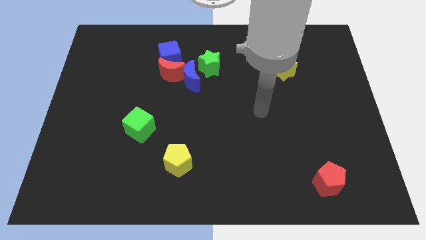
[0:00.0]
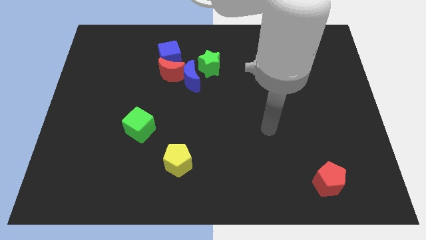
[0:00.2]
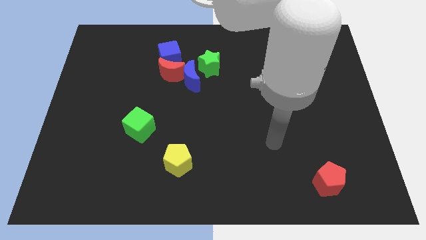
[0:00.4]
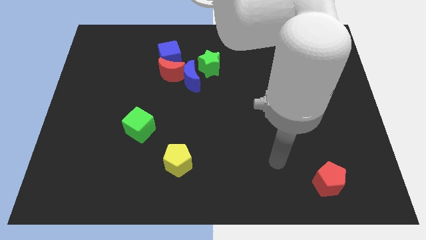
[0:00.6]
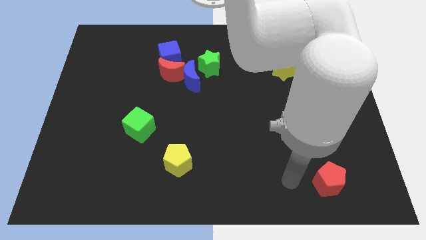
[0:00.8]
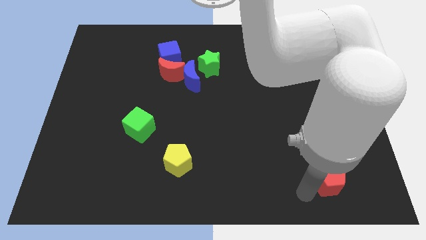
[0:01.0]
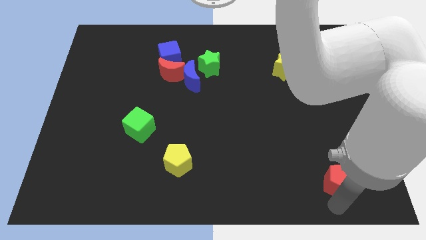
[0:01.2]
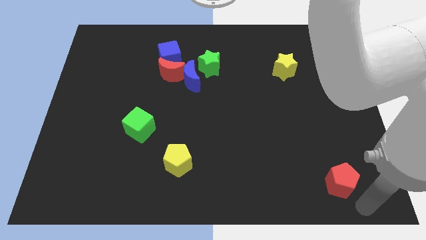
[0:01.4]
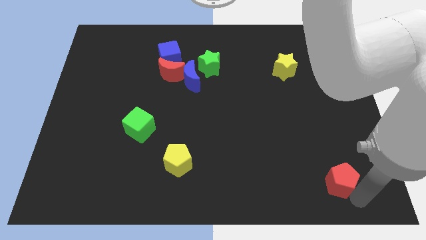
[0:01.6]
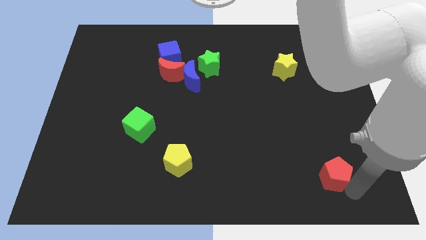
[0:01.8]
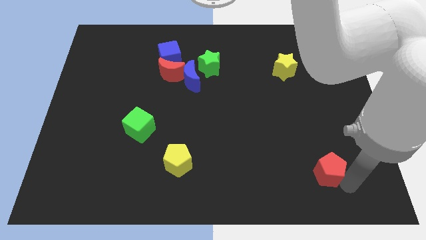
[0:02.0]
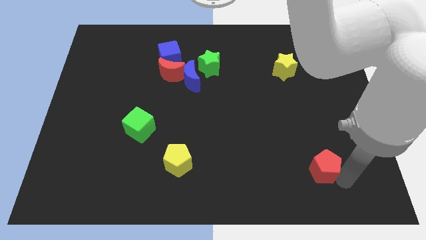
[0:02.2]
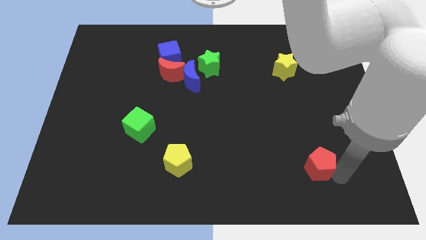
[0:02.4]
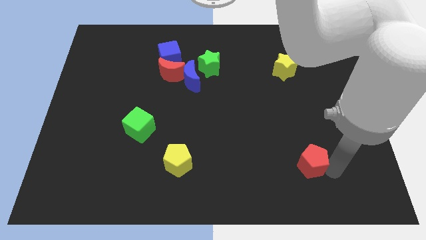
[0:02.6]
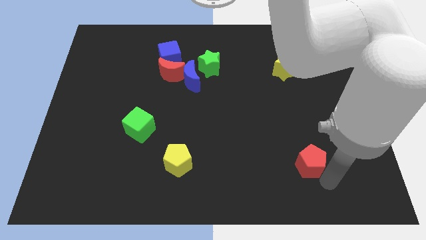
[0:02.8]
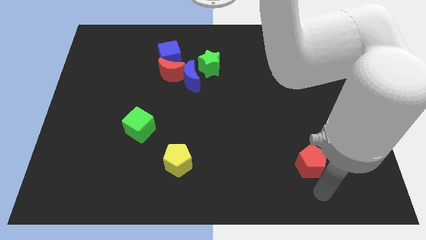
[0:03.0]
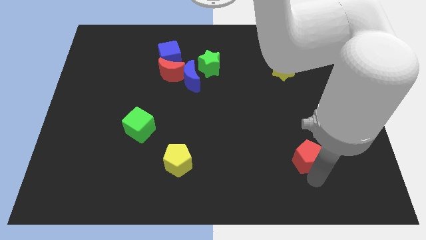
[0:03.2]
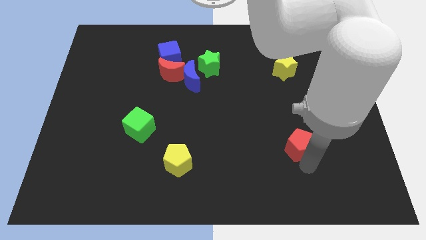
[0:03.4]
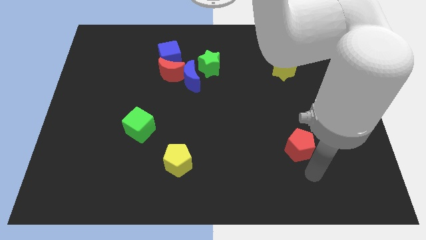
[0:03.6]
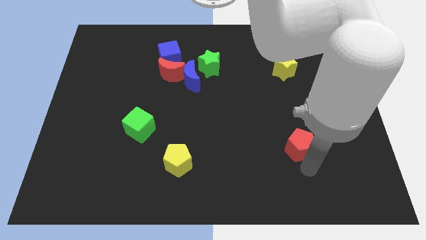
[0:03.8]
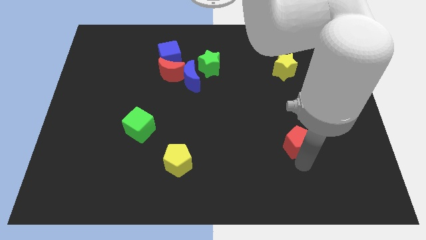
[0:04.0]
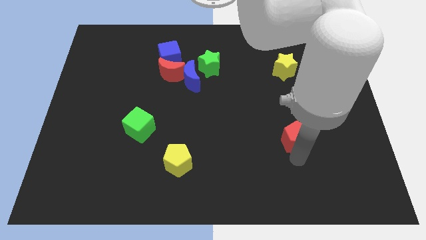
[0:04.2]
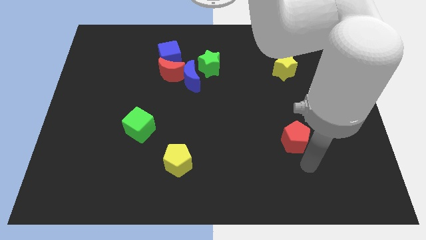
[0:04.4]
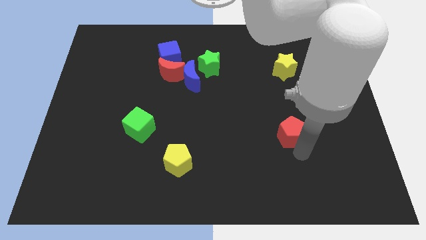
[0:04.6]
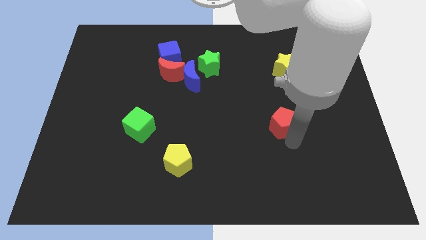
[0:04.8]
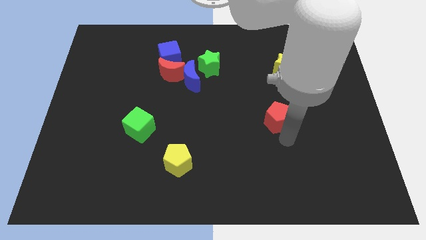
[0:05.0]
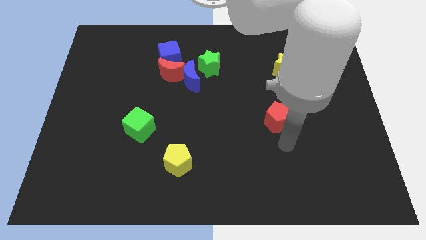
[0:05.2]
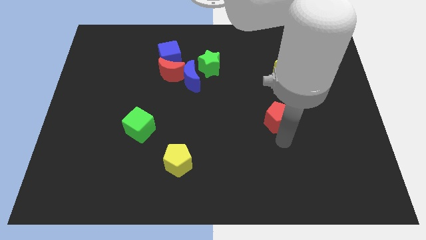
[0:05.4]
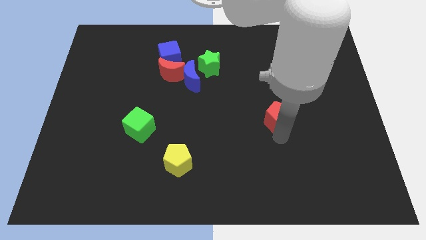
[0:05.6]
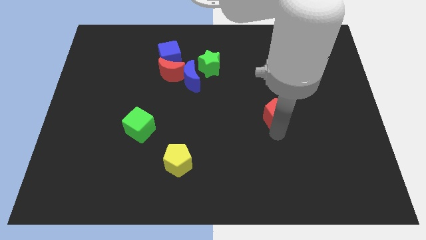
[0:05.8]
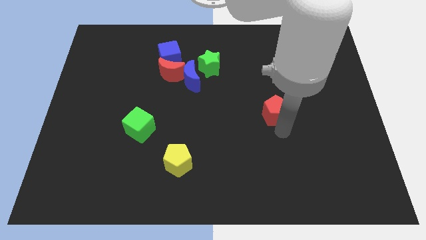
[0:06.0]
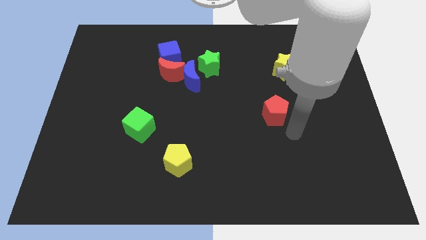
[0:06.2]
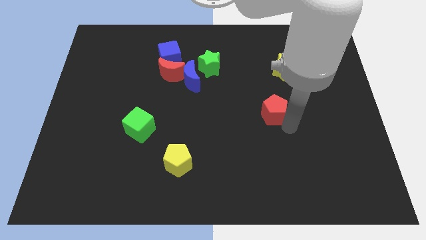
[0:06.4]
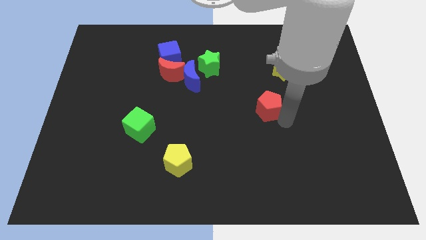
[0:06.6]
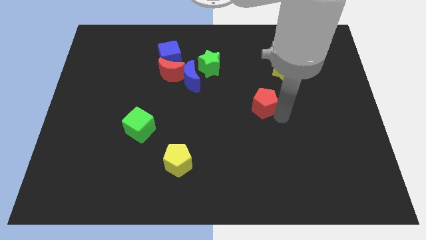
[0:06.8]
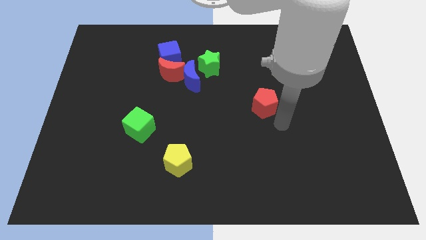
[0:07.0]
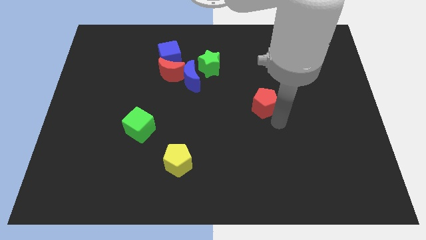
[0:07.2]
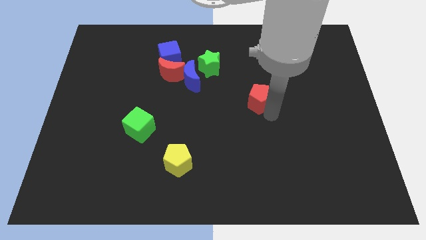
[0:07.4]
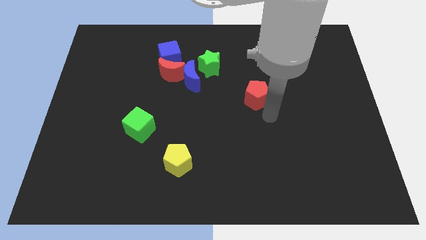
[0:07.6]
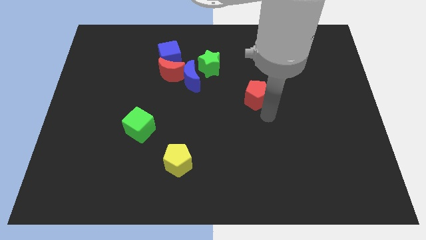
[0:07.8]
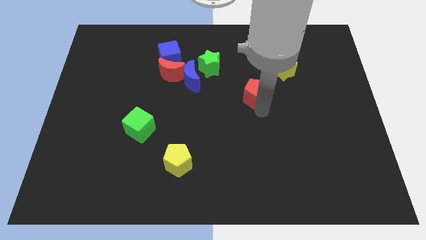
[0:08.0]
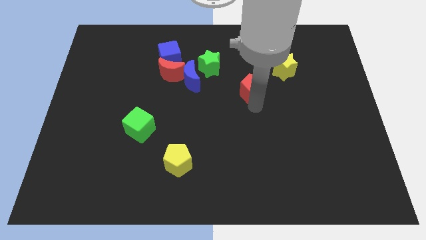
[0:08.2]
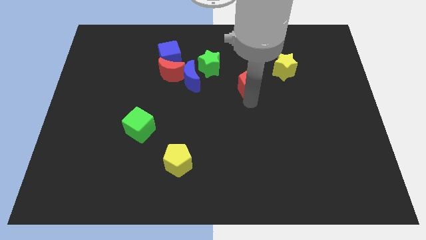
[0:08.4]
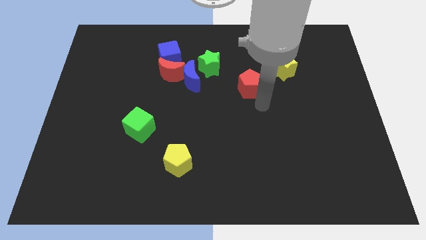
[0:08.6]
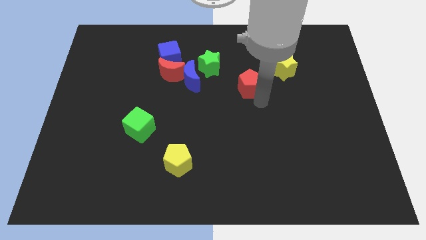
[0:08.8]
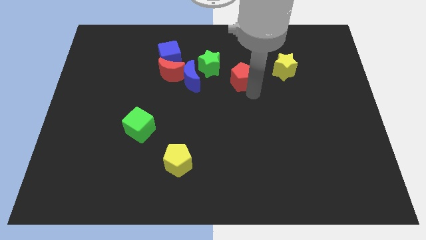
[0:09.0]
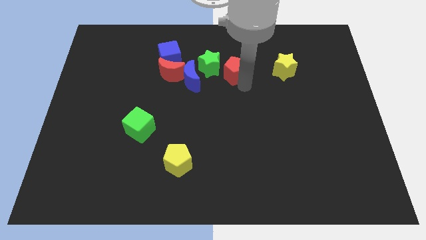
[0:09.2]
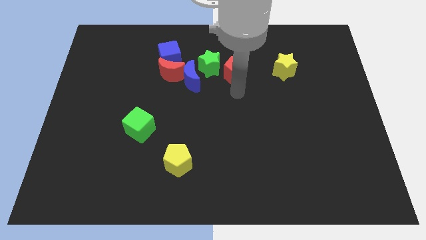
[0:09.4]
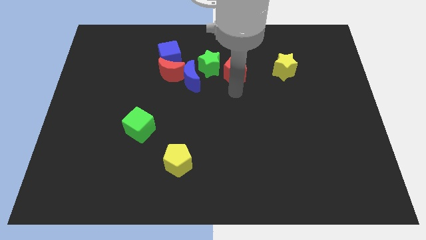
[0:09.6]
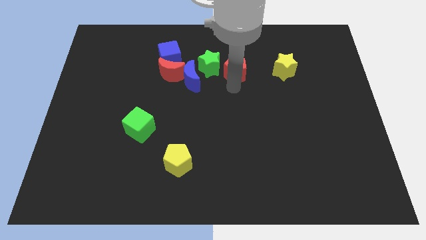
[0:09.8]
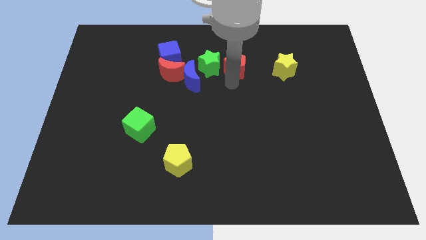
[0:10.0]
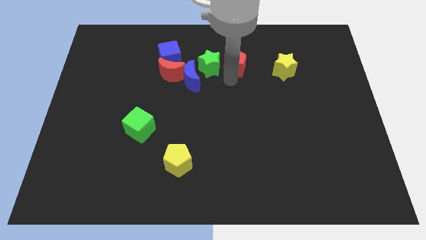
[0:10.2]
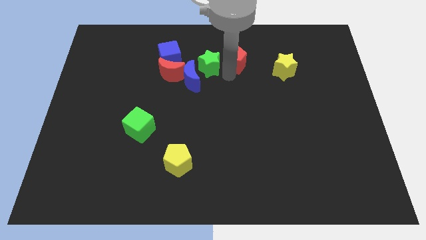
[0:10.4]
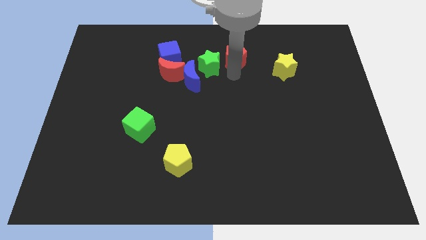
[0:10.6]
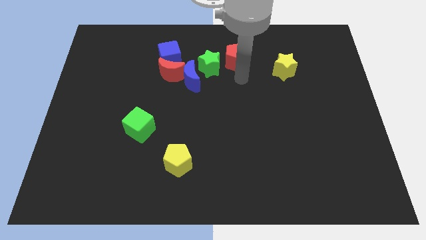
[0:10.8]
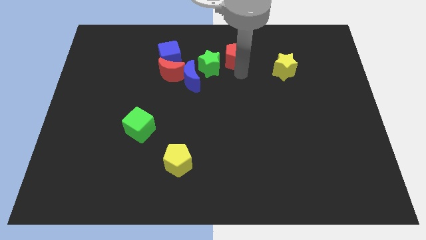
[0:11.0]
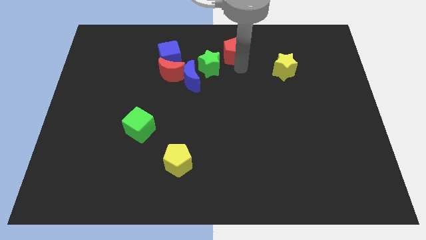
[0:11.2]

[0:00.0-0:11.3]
push the red pentagon to the towards your base

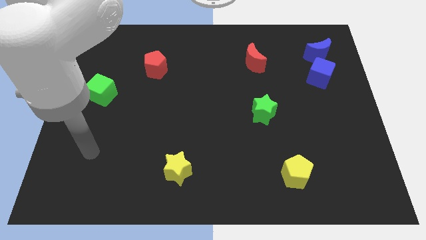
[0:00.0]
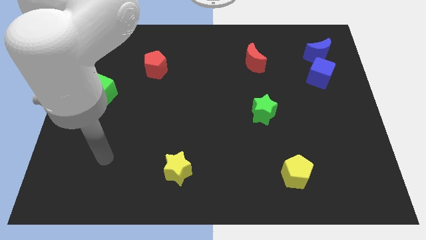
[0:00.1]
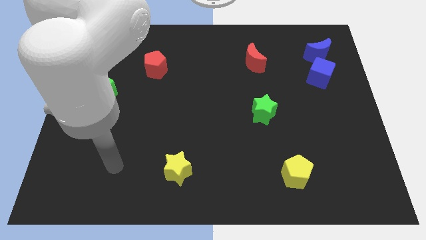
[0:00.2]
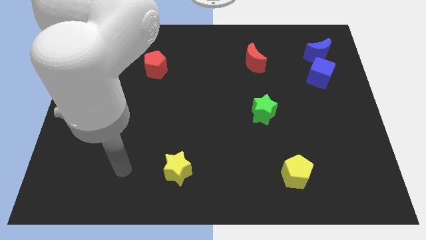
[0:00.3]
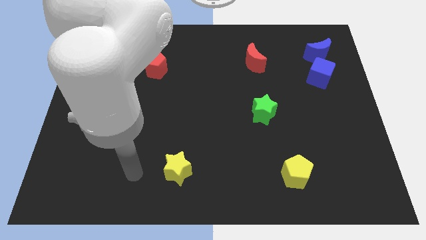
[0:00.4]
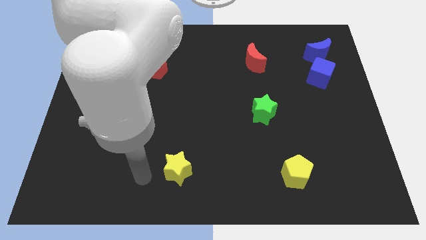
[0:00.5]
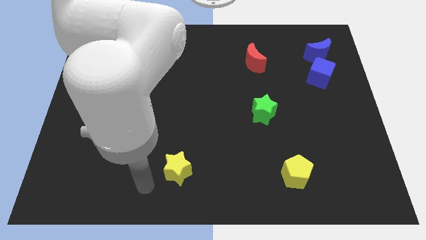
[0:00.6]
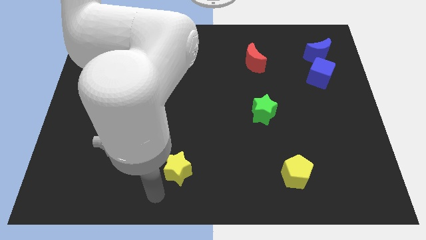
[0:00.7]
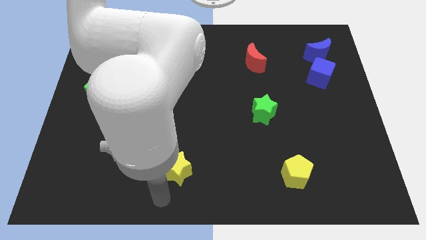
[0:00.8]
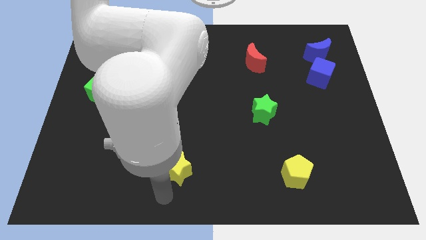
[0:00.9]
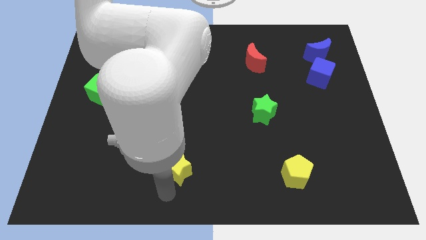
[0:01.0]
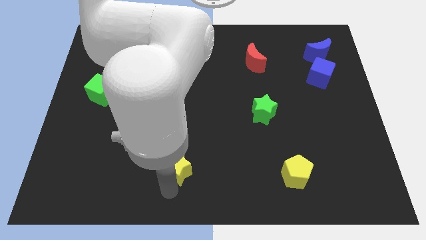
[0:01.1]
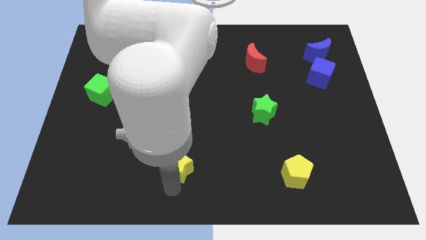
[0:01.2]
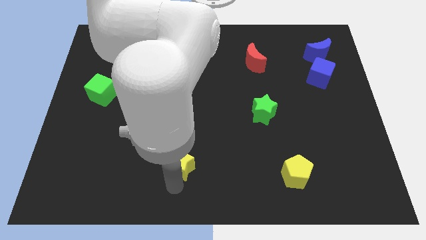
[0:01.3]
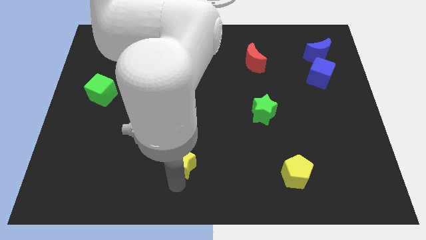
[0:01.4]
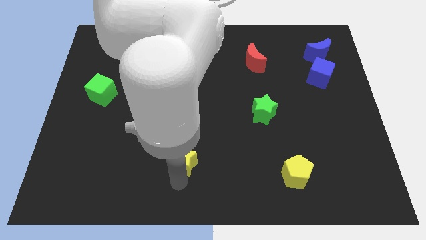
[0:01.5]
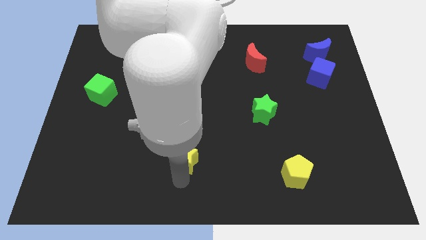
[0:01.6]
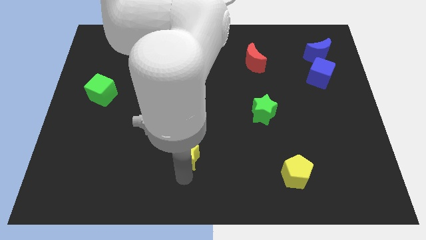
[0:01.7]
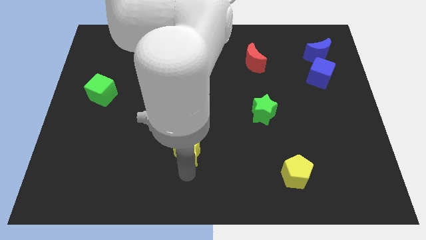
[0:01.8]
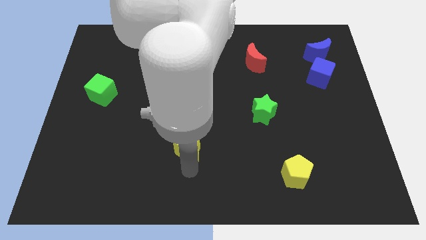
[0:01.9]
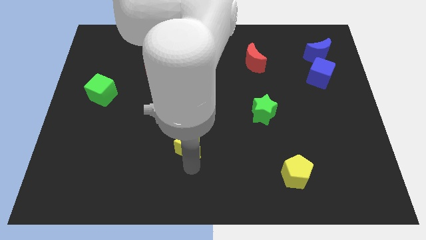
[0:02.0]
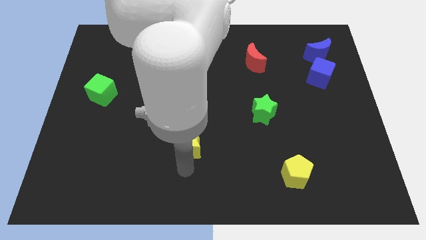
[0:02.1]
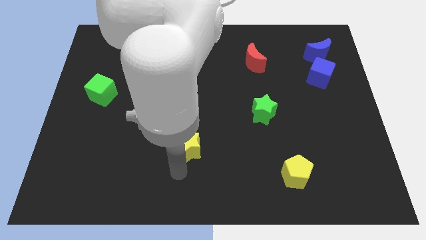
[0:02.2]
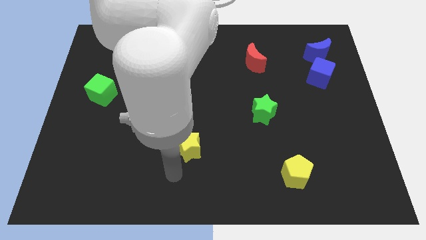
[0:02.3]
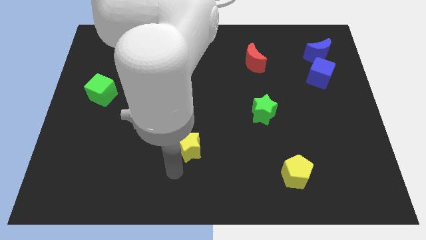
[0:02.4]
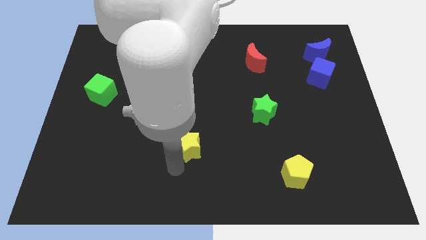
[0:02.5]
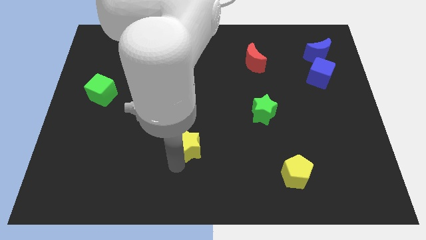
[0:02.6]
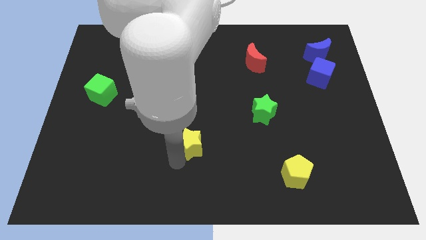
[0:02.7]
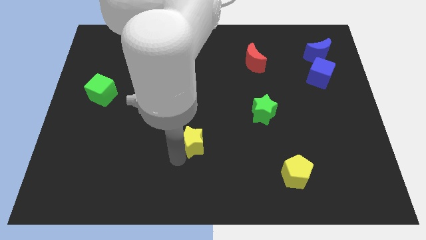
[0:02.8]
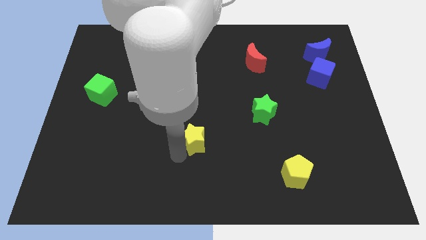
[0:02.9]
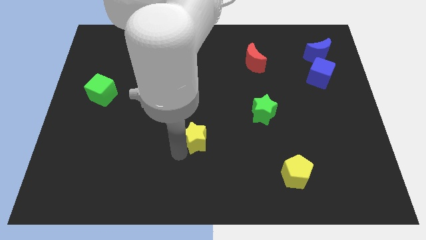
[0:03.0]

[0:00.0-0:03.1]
put the yellow star to the middle
